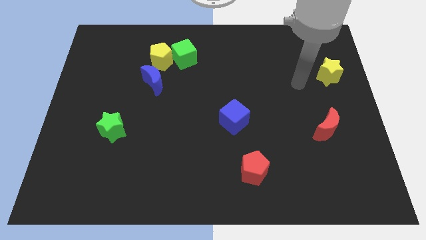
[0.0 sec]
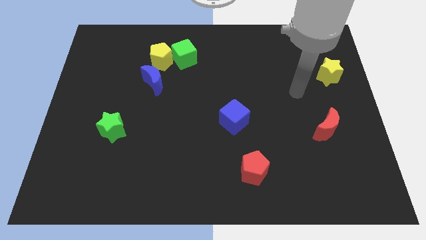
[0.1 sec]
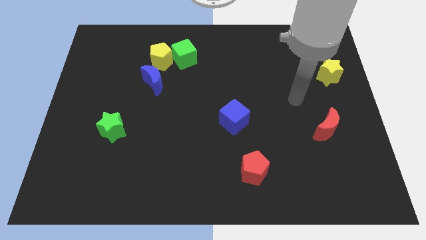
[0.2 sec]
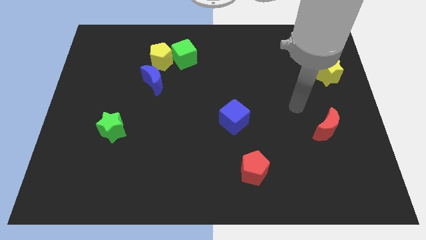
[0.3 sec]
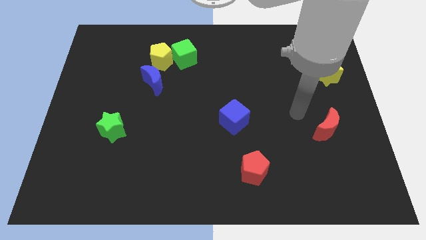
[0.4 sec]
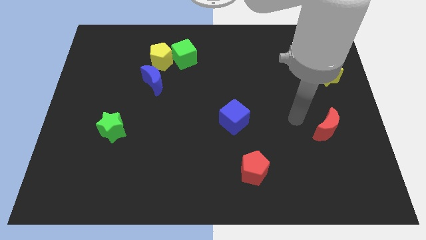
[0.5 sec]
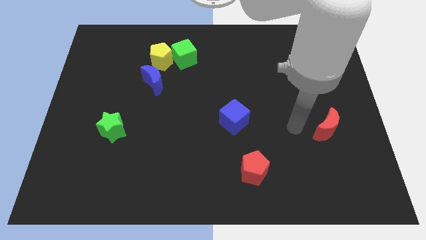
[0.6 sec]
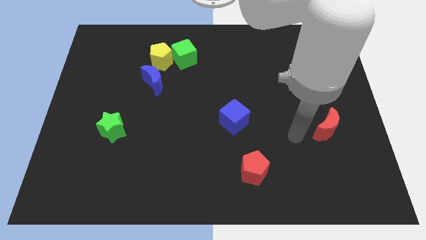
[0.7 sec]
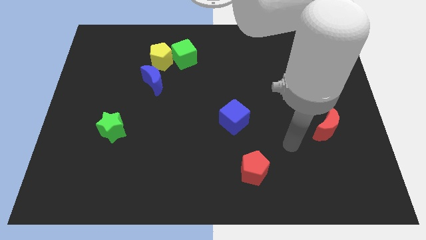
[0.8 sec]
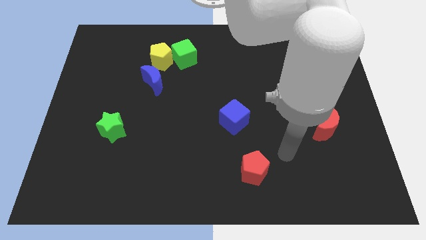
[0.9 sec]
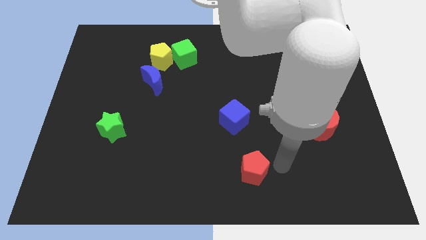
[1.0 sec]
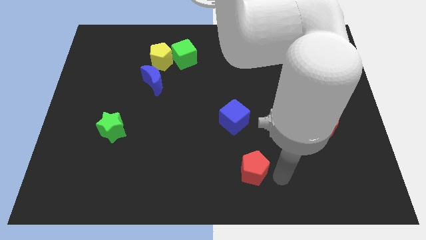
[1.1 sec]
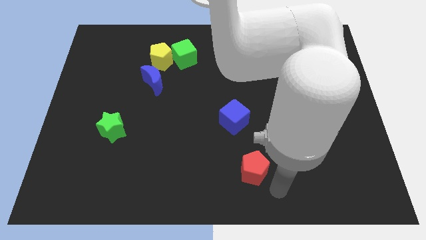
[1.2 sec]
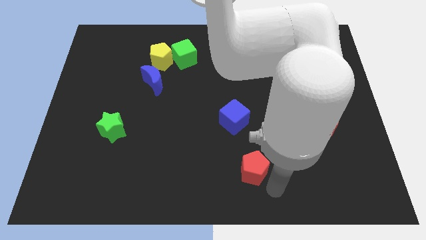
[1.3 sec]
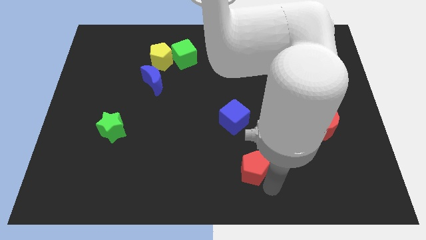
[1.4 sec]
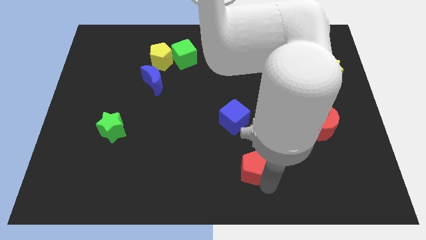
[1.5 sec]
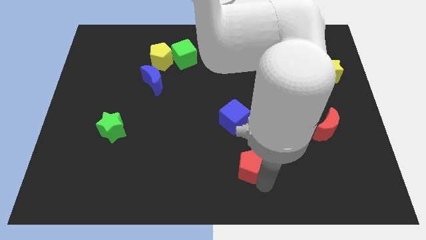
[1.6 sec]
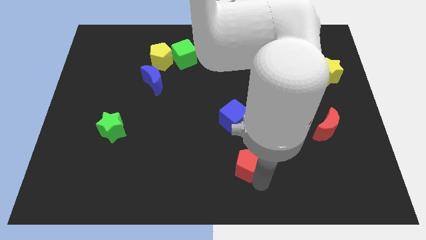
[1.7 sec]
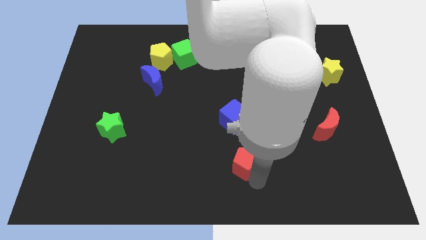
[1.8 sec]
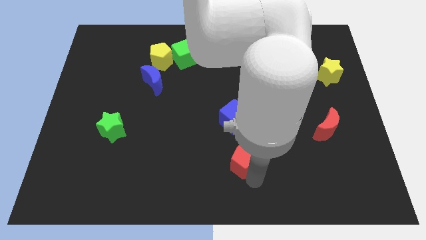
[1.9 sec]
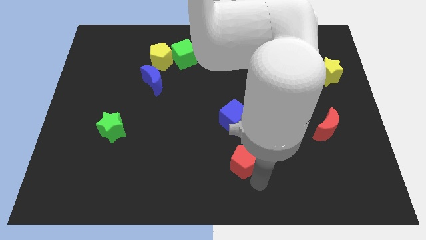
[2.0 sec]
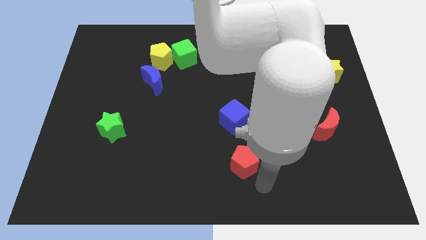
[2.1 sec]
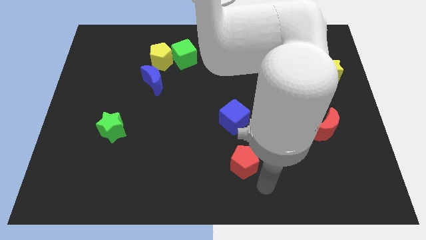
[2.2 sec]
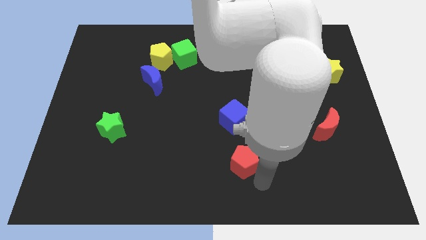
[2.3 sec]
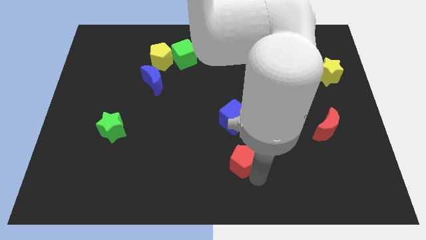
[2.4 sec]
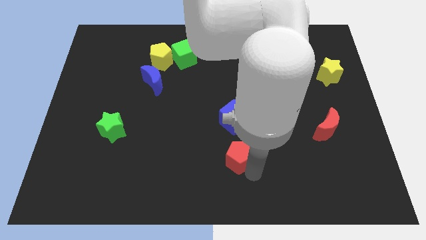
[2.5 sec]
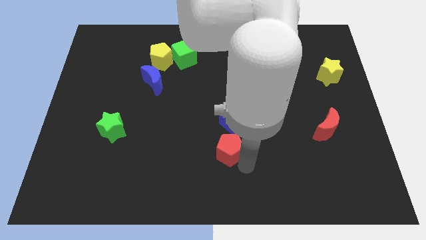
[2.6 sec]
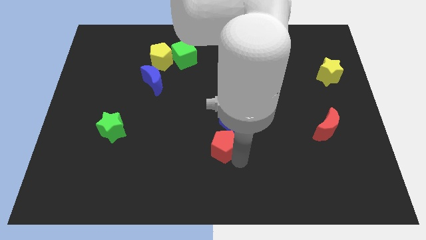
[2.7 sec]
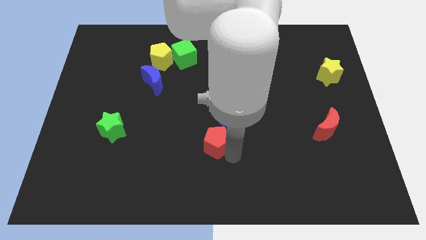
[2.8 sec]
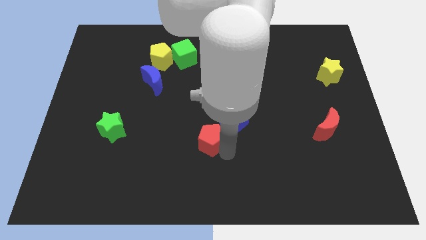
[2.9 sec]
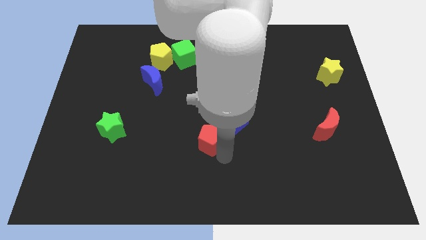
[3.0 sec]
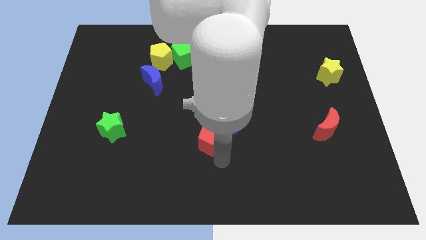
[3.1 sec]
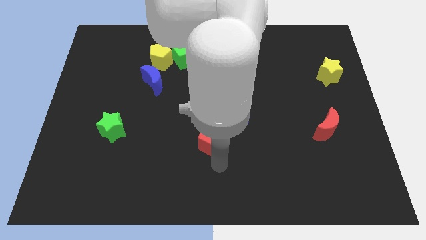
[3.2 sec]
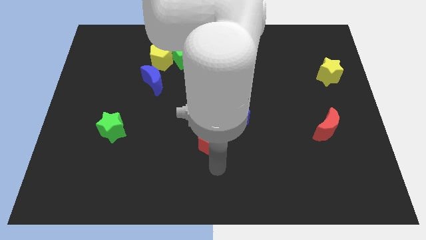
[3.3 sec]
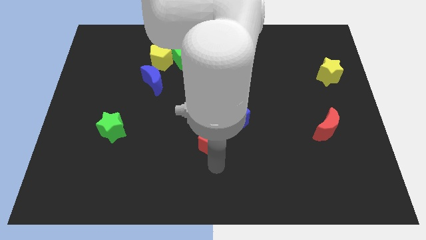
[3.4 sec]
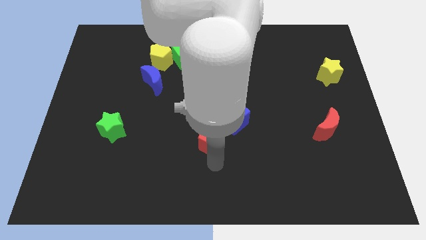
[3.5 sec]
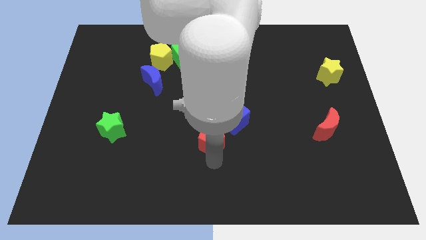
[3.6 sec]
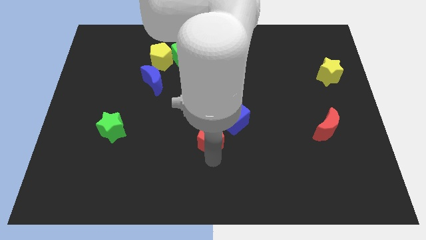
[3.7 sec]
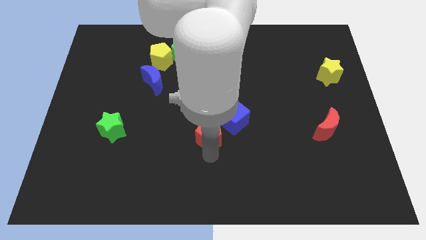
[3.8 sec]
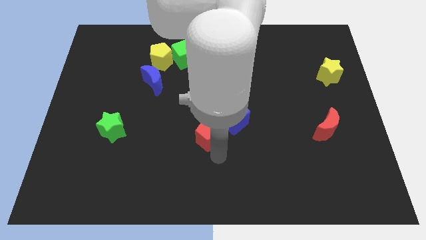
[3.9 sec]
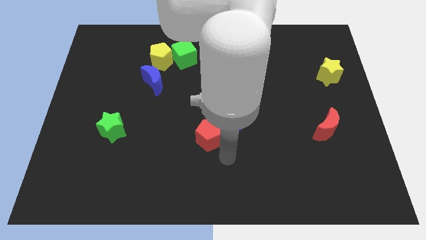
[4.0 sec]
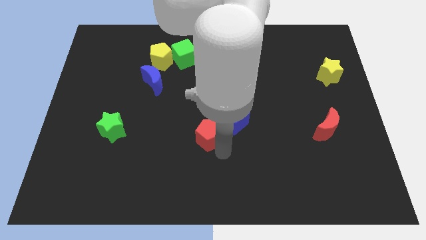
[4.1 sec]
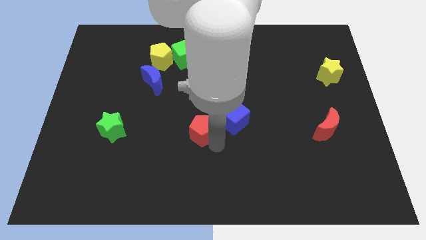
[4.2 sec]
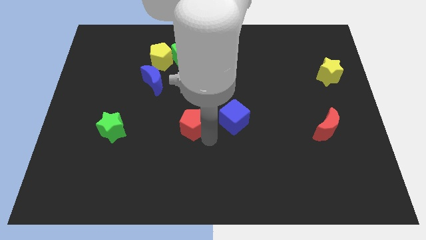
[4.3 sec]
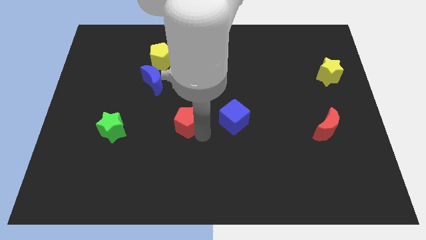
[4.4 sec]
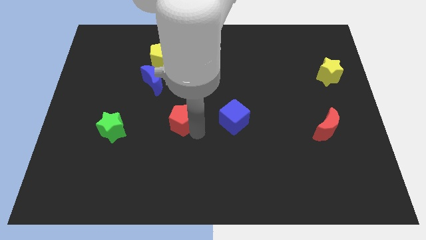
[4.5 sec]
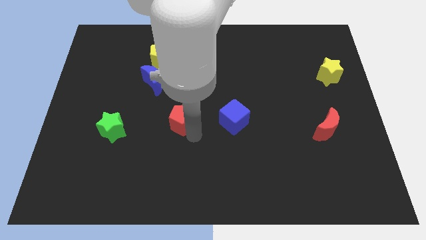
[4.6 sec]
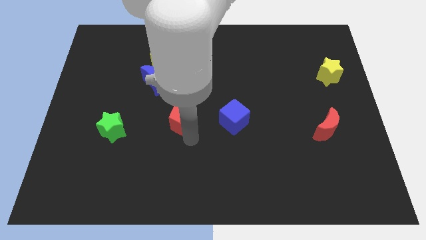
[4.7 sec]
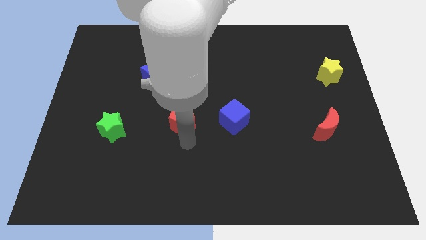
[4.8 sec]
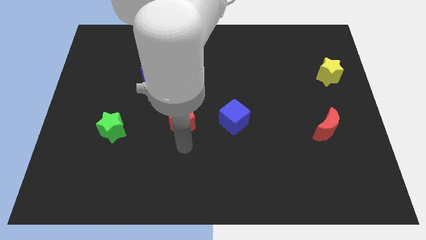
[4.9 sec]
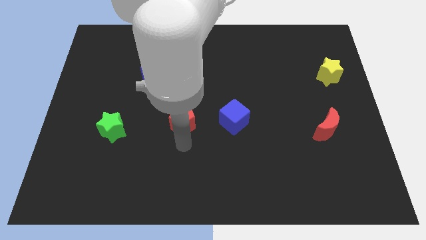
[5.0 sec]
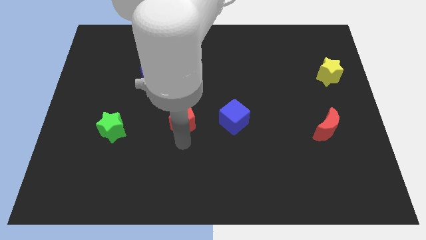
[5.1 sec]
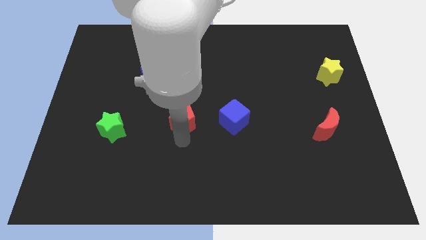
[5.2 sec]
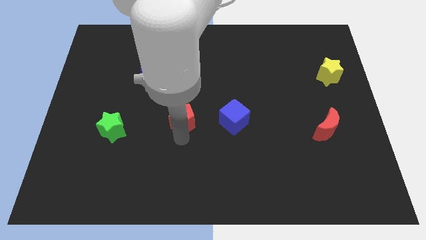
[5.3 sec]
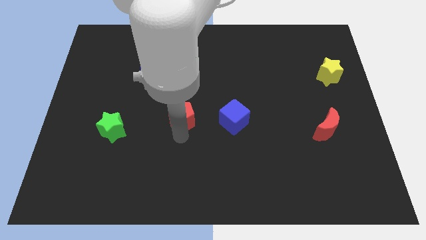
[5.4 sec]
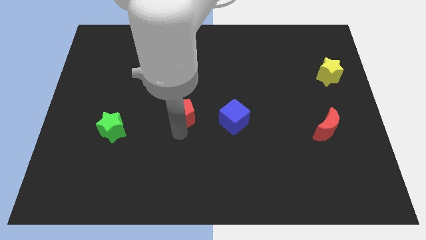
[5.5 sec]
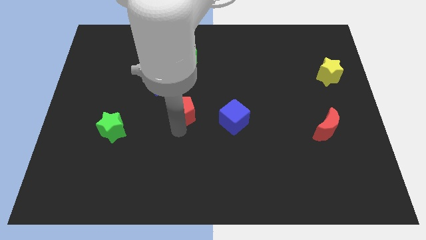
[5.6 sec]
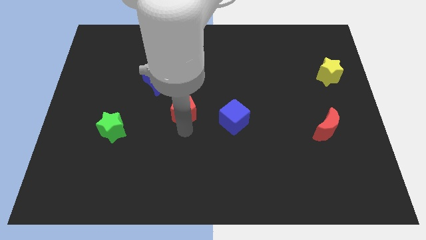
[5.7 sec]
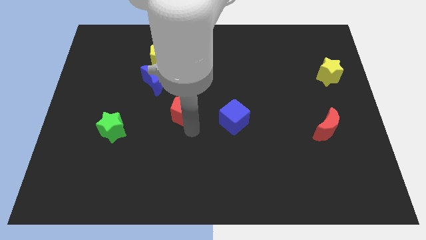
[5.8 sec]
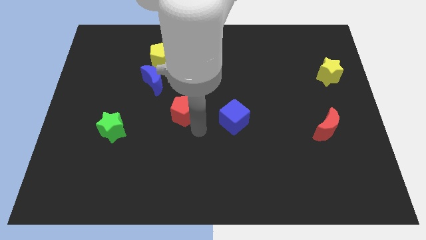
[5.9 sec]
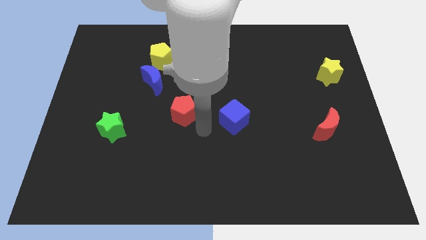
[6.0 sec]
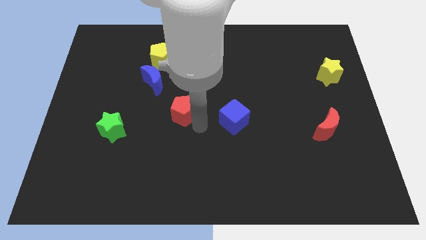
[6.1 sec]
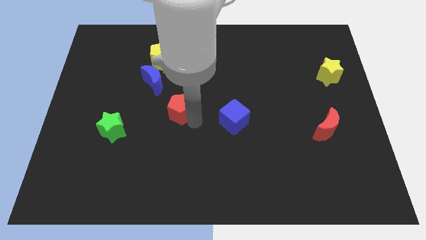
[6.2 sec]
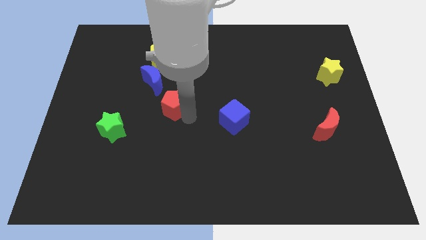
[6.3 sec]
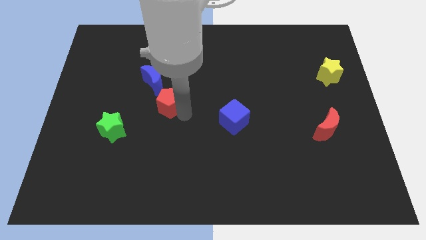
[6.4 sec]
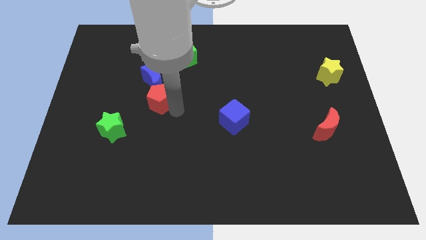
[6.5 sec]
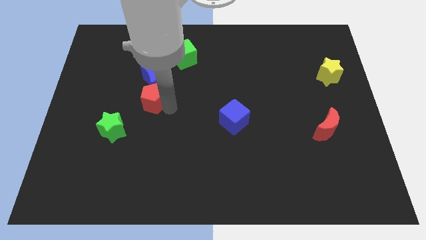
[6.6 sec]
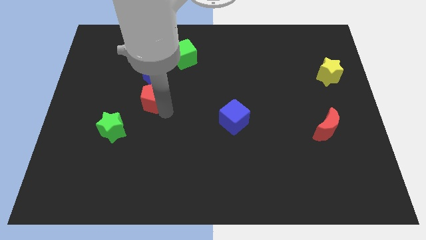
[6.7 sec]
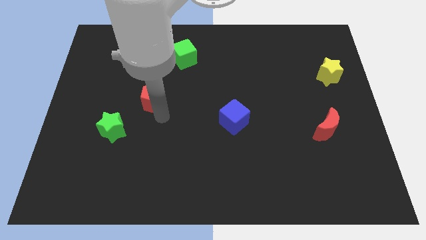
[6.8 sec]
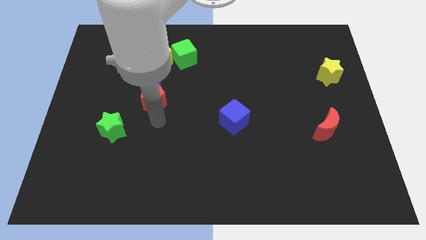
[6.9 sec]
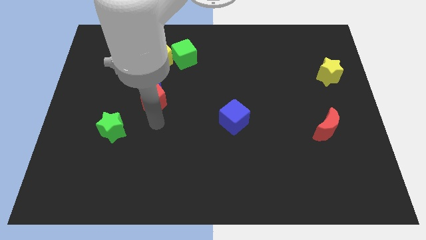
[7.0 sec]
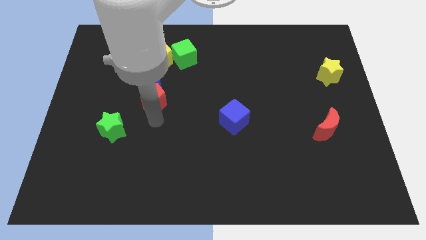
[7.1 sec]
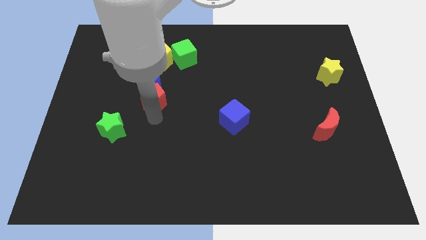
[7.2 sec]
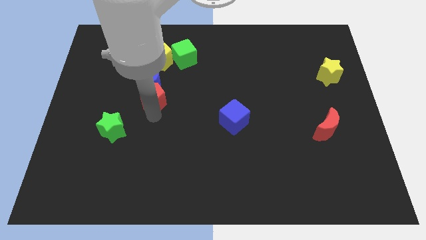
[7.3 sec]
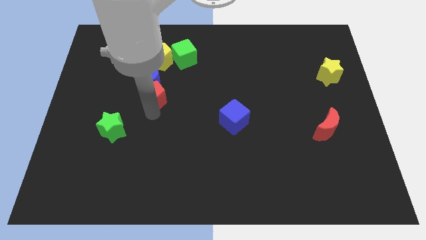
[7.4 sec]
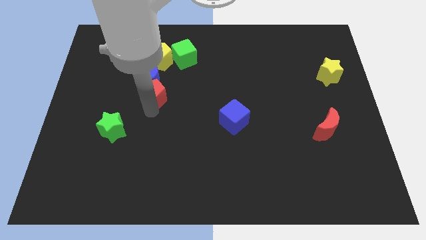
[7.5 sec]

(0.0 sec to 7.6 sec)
push the red pentagon next to the blue moon
